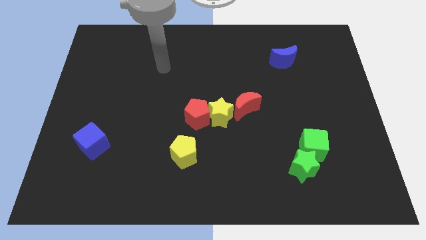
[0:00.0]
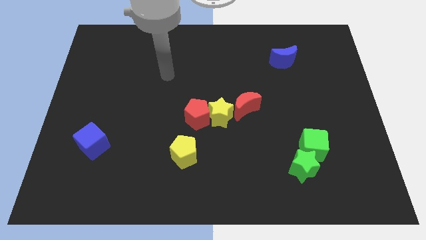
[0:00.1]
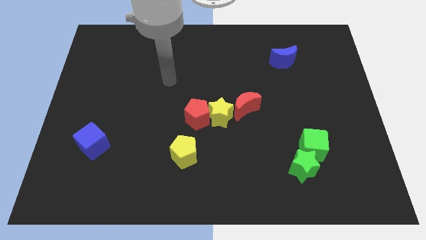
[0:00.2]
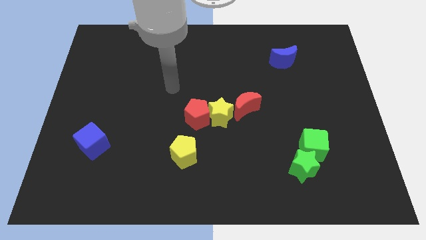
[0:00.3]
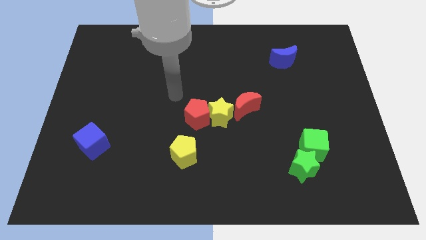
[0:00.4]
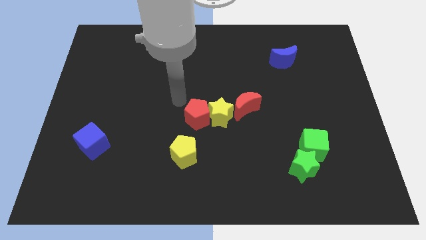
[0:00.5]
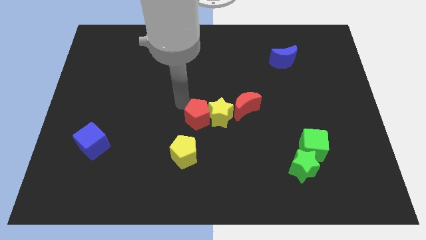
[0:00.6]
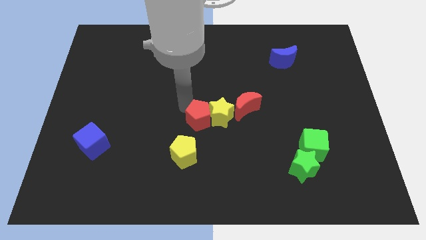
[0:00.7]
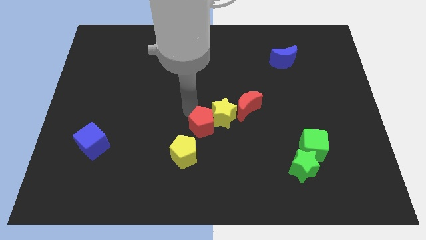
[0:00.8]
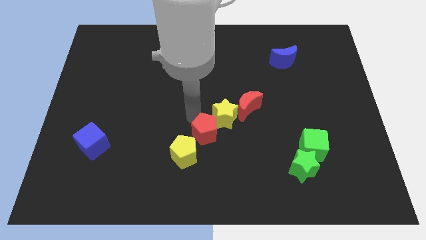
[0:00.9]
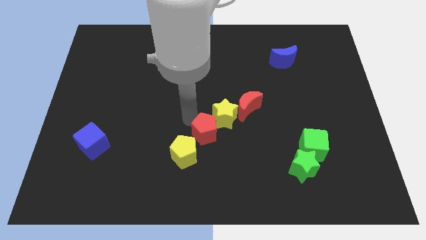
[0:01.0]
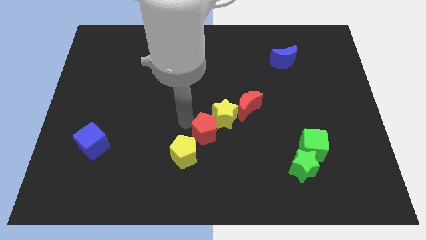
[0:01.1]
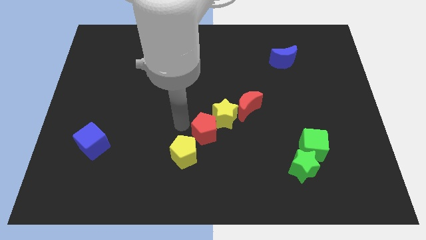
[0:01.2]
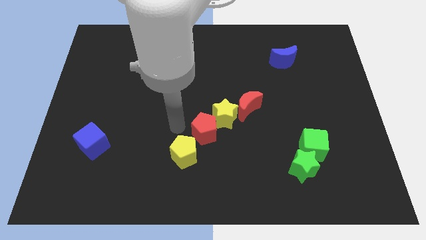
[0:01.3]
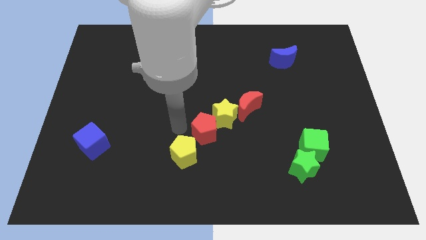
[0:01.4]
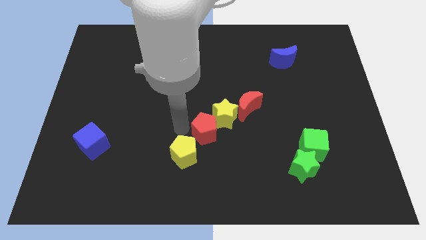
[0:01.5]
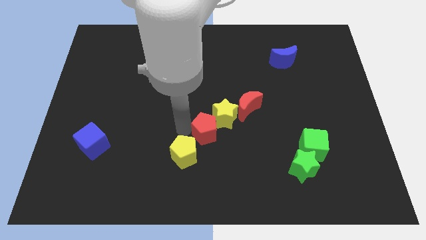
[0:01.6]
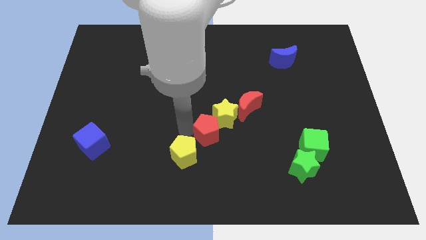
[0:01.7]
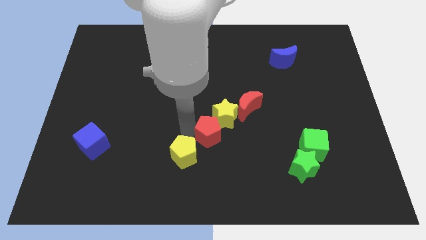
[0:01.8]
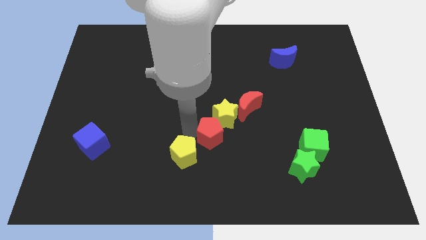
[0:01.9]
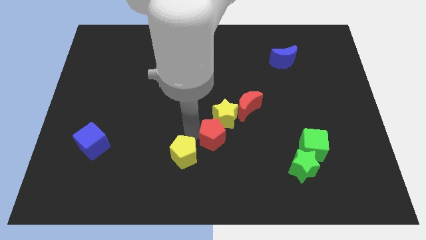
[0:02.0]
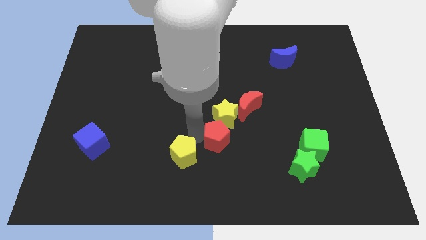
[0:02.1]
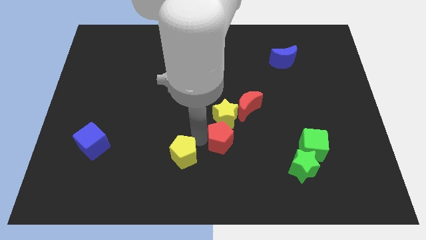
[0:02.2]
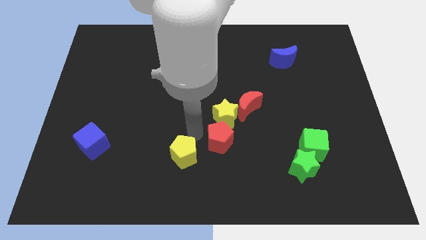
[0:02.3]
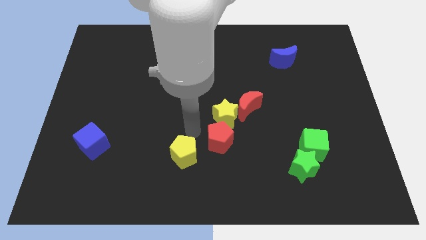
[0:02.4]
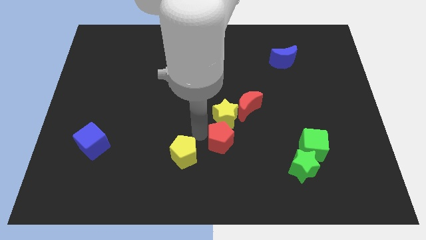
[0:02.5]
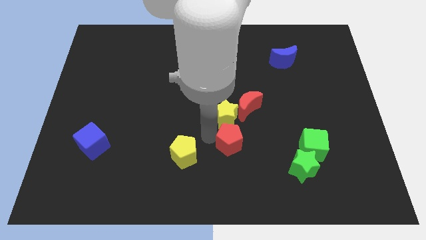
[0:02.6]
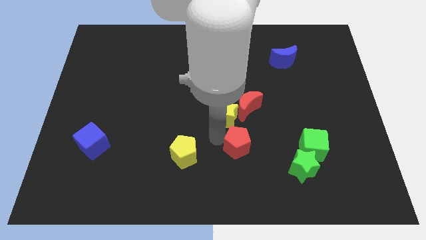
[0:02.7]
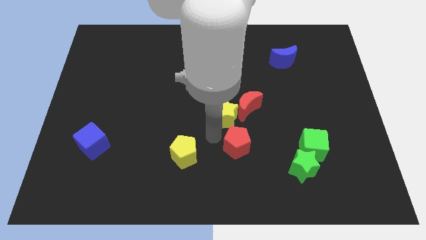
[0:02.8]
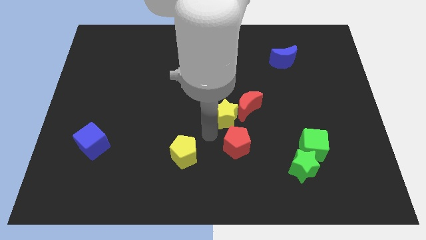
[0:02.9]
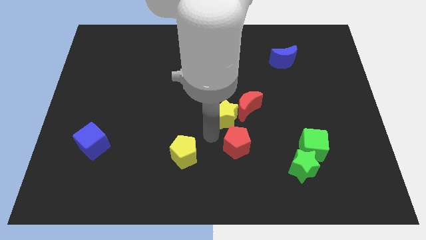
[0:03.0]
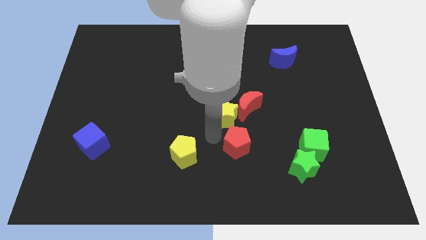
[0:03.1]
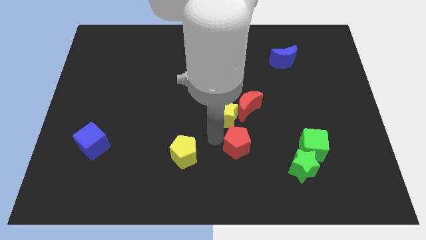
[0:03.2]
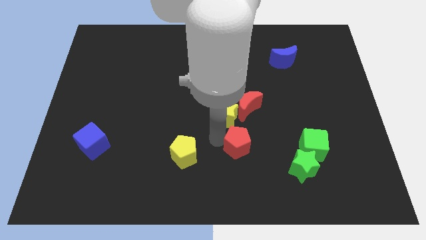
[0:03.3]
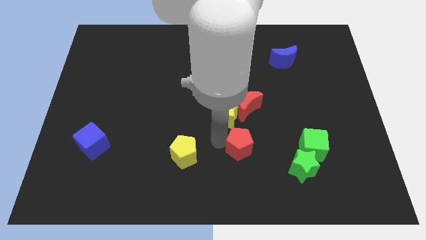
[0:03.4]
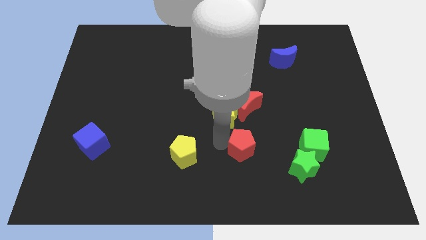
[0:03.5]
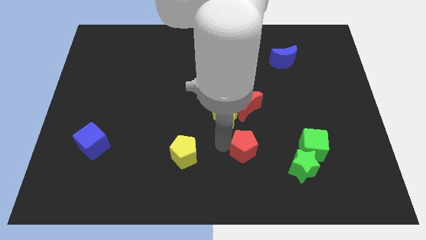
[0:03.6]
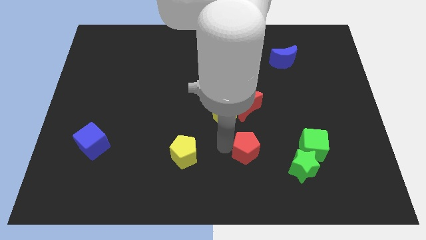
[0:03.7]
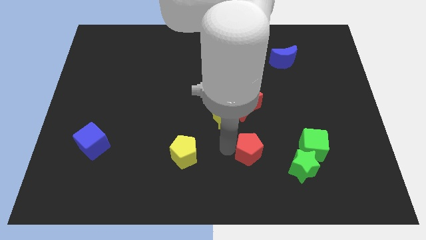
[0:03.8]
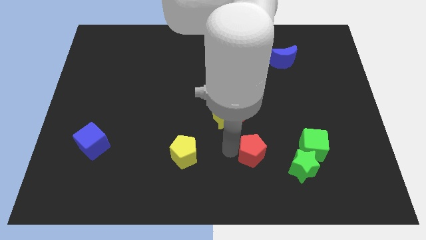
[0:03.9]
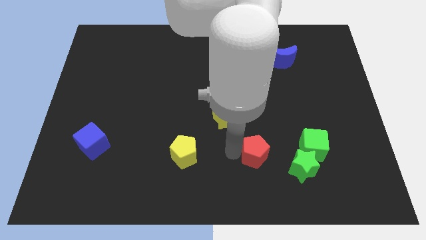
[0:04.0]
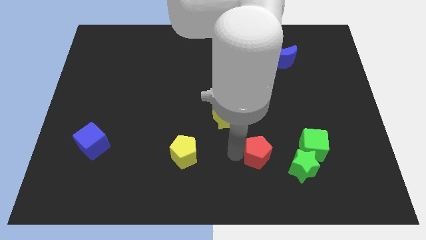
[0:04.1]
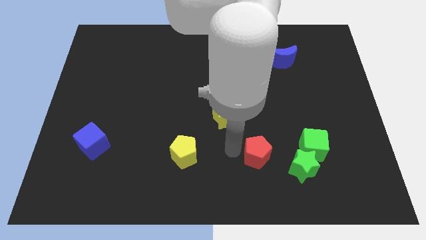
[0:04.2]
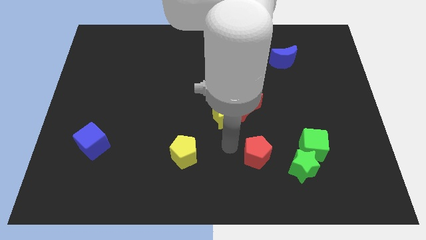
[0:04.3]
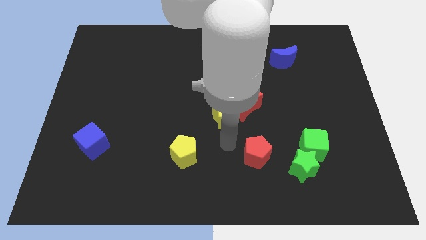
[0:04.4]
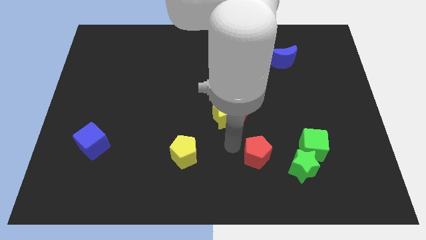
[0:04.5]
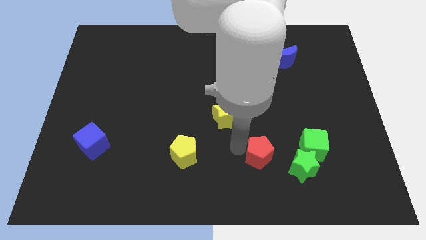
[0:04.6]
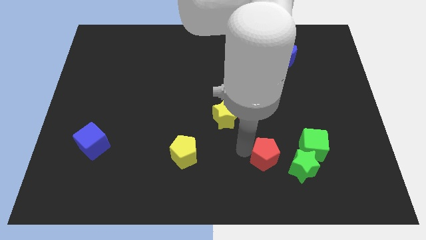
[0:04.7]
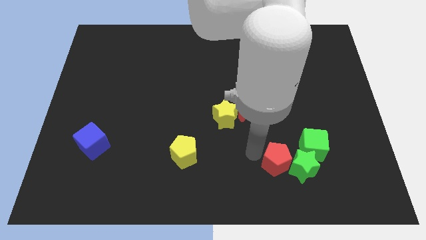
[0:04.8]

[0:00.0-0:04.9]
push the red pentagon close to the green star

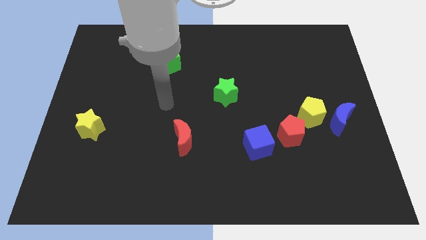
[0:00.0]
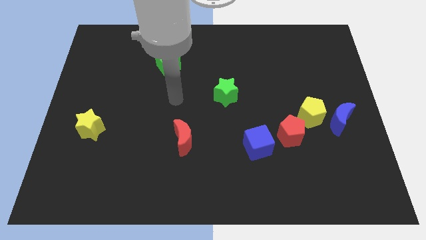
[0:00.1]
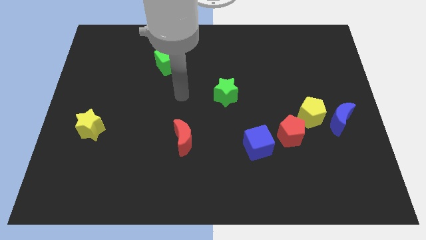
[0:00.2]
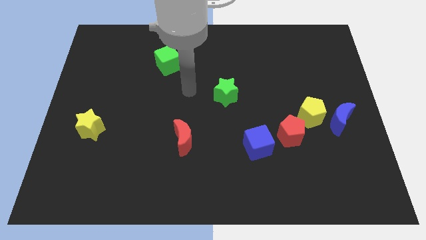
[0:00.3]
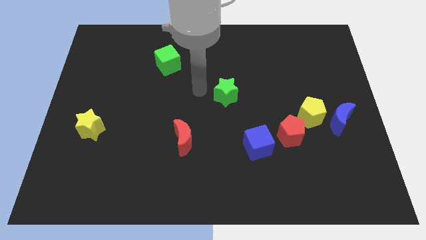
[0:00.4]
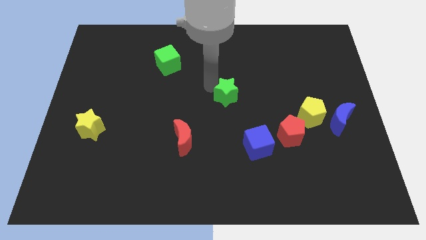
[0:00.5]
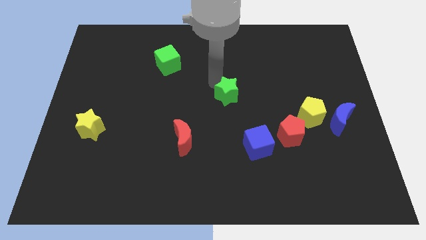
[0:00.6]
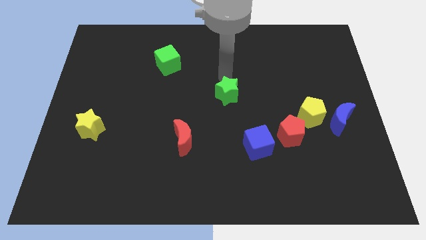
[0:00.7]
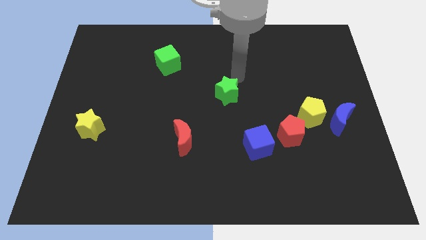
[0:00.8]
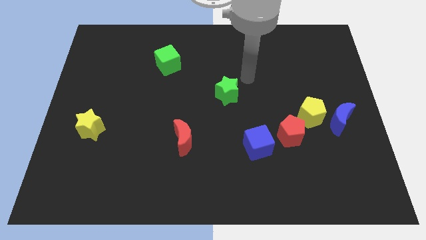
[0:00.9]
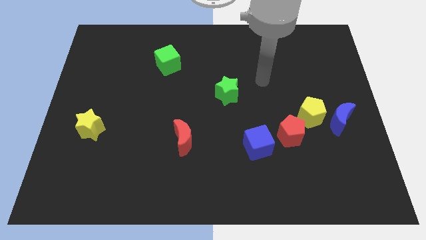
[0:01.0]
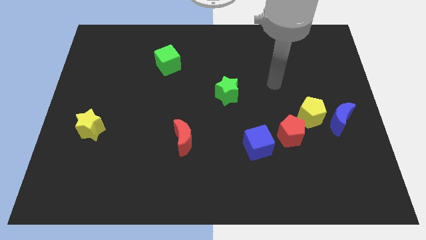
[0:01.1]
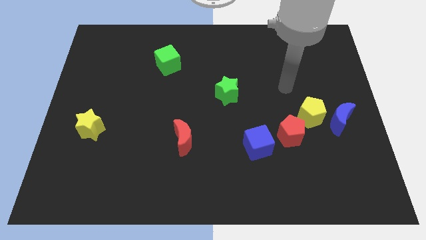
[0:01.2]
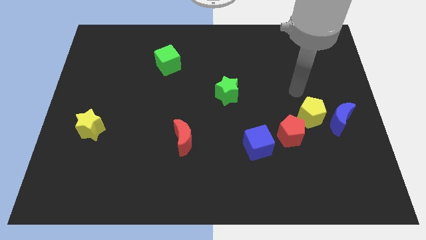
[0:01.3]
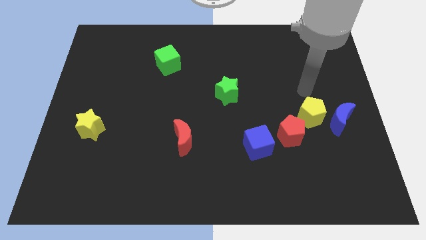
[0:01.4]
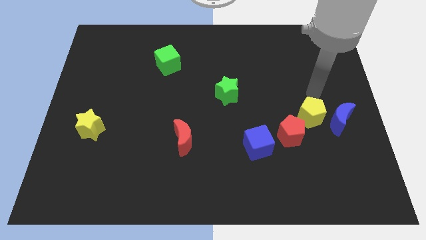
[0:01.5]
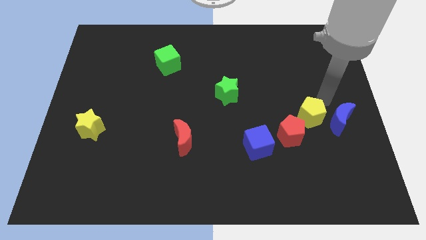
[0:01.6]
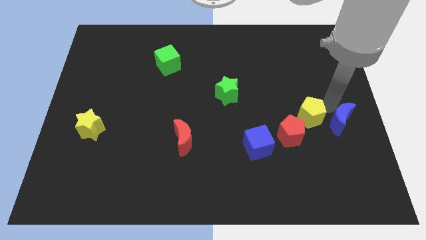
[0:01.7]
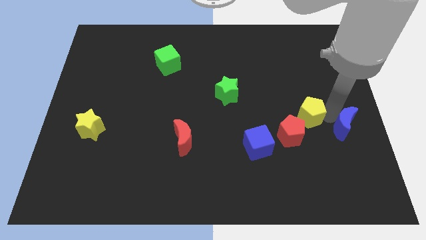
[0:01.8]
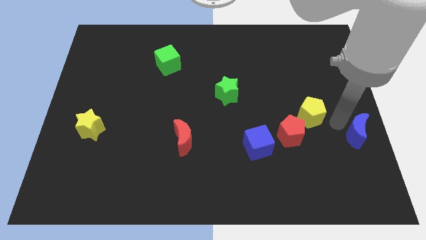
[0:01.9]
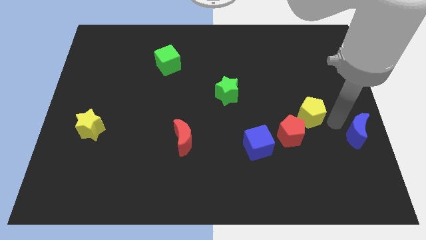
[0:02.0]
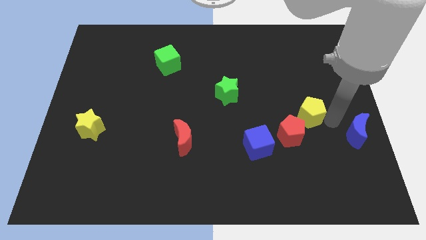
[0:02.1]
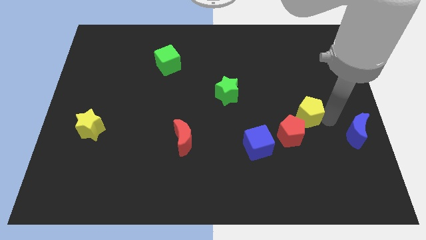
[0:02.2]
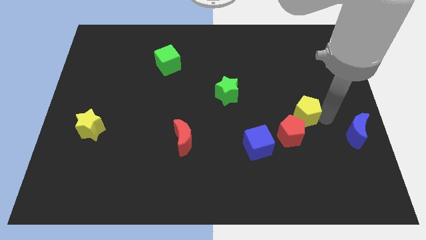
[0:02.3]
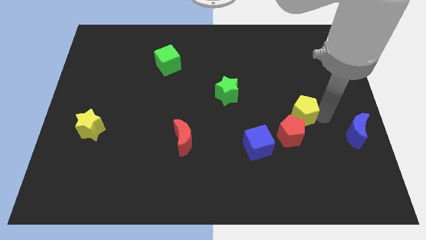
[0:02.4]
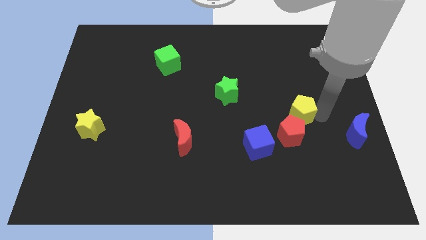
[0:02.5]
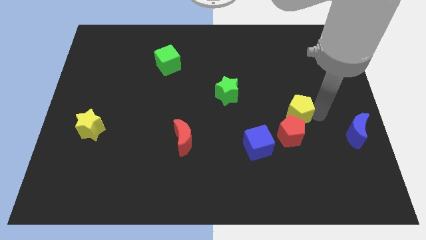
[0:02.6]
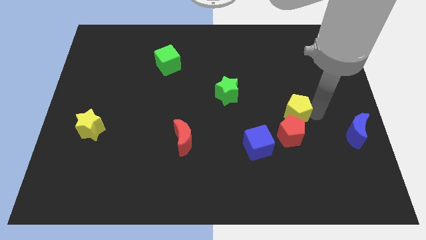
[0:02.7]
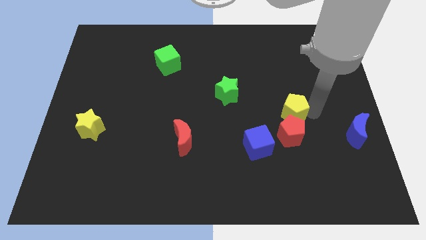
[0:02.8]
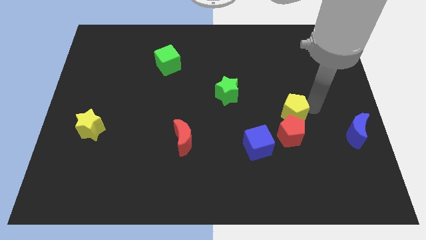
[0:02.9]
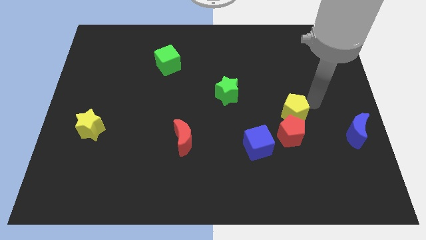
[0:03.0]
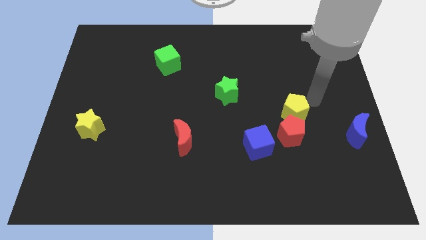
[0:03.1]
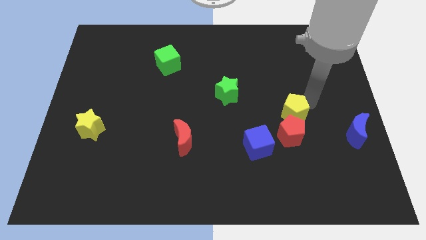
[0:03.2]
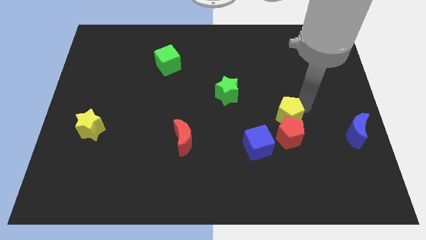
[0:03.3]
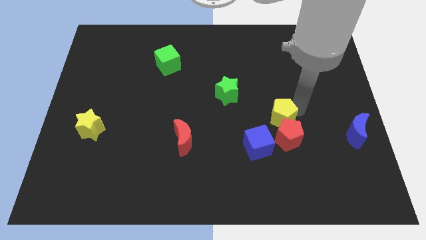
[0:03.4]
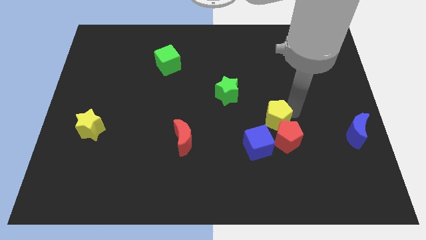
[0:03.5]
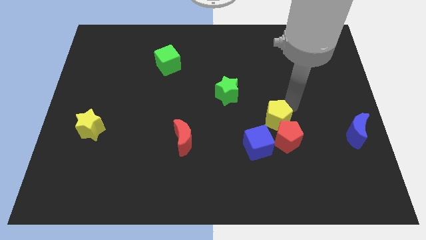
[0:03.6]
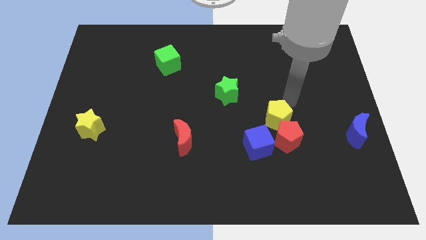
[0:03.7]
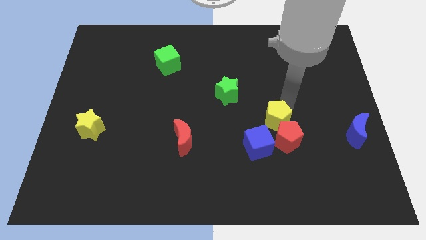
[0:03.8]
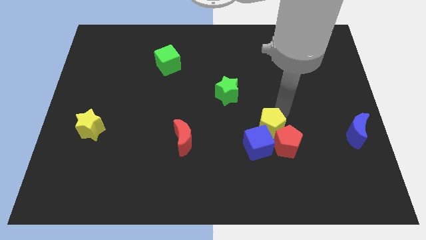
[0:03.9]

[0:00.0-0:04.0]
push the yellow pentagon to the blue cube
